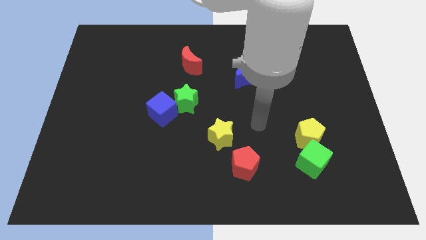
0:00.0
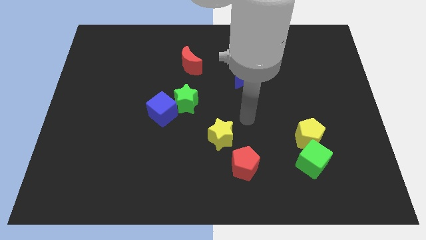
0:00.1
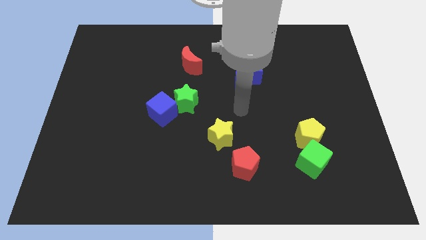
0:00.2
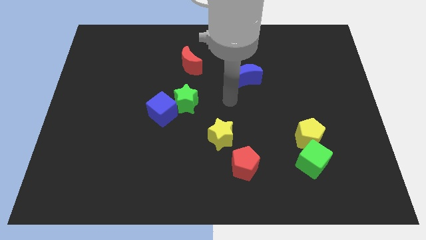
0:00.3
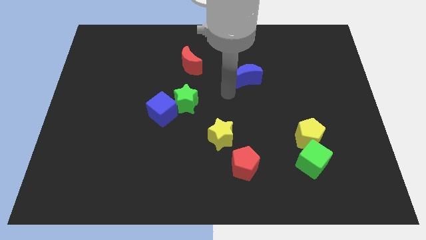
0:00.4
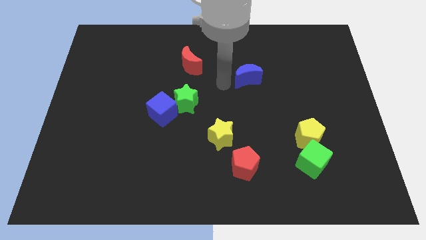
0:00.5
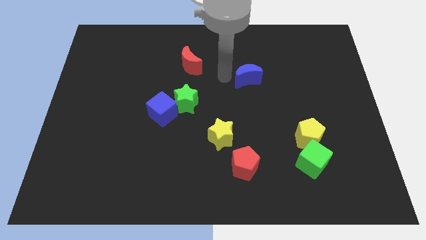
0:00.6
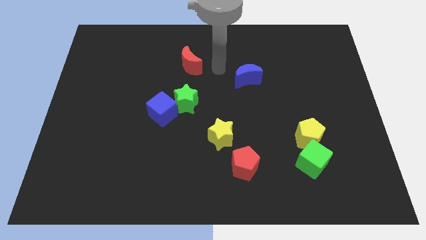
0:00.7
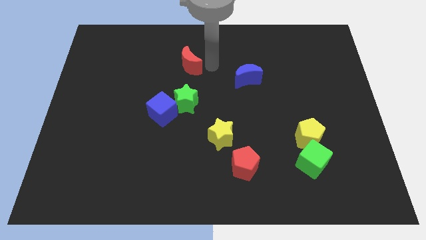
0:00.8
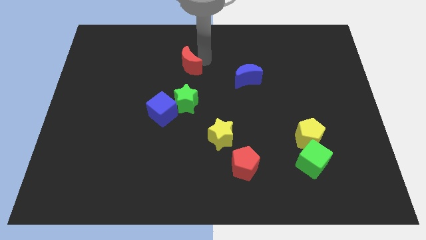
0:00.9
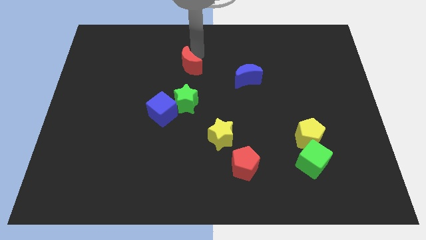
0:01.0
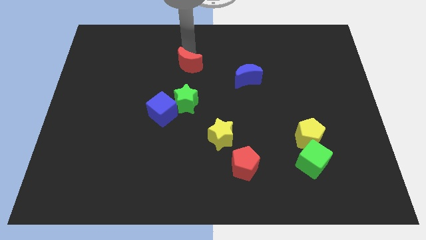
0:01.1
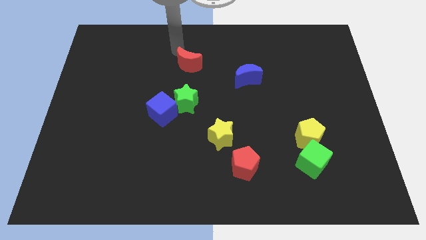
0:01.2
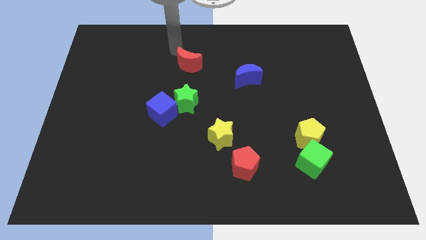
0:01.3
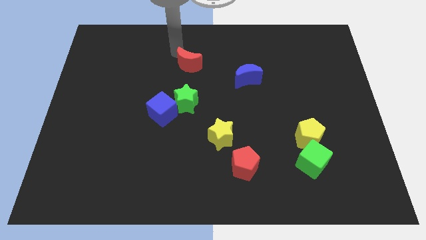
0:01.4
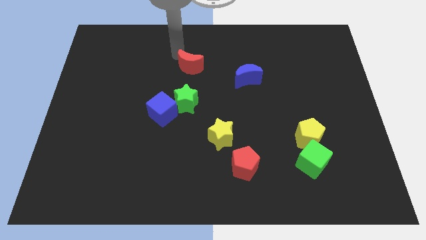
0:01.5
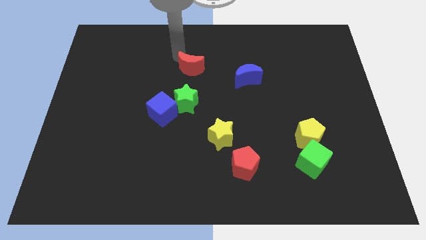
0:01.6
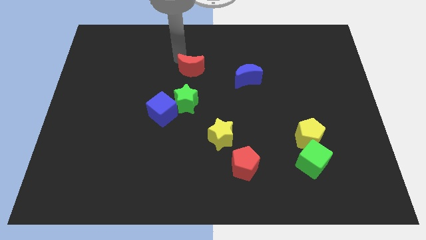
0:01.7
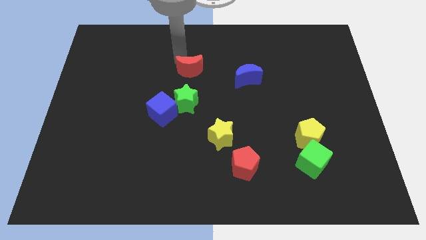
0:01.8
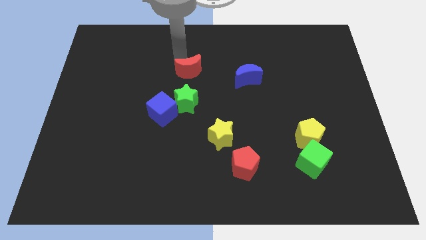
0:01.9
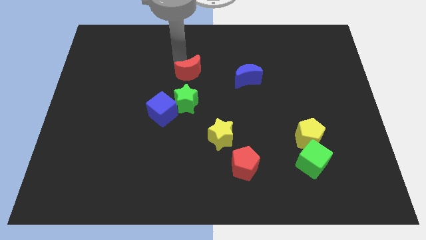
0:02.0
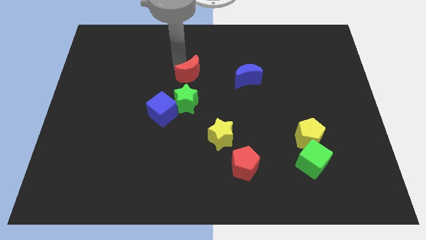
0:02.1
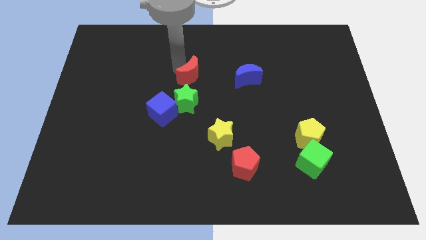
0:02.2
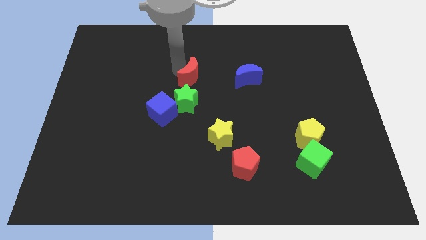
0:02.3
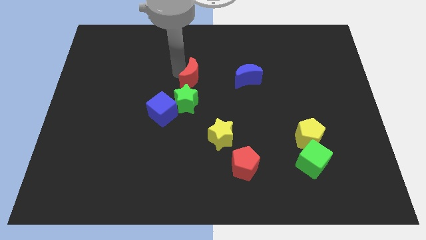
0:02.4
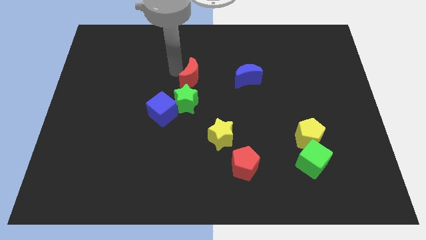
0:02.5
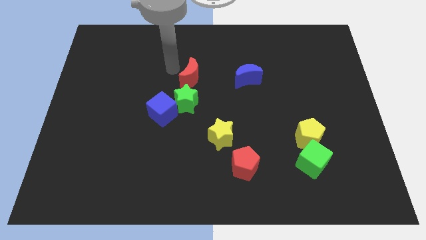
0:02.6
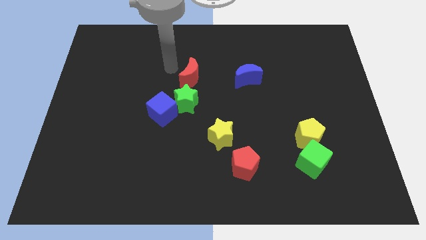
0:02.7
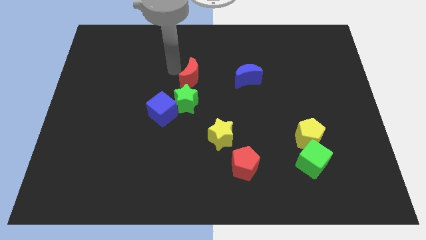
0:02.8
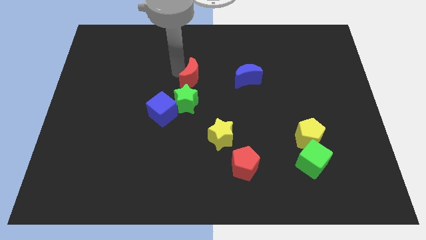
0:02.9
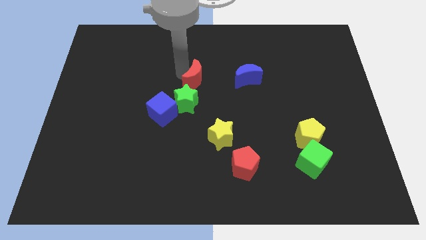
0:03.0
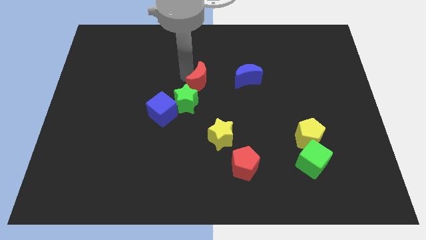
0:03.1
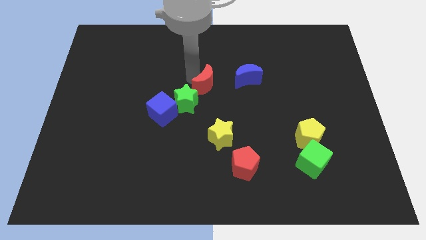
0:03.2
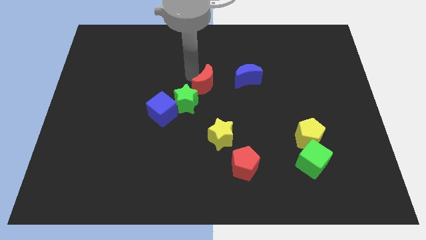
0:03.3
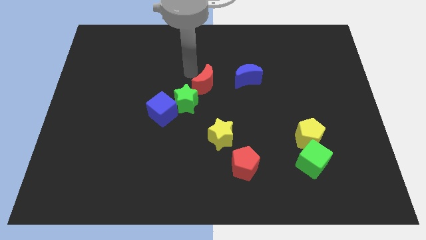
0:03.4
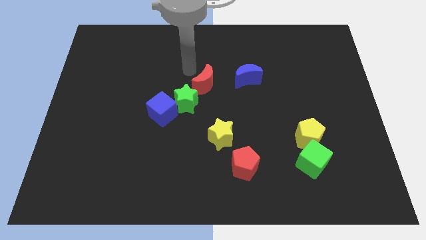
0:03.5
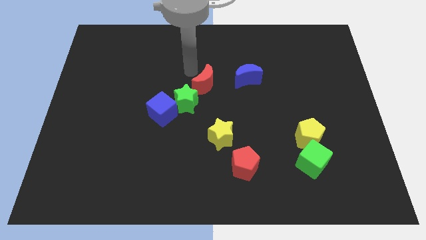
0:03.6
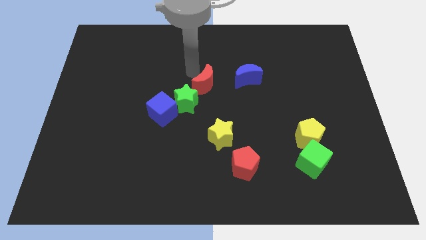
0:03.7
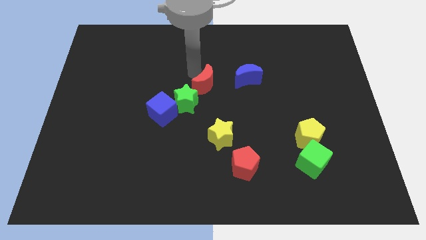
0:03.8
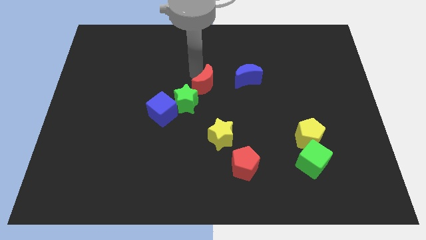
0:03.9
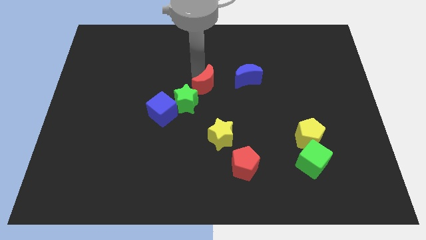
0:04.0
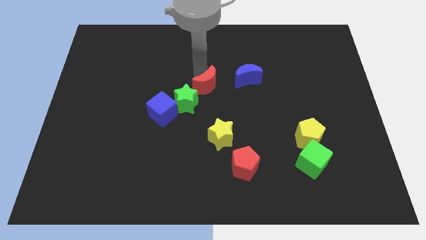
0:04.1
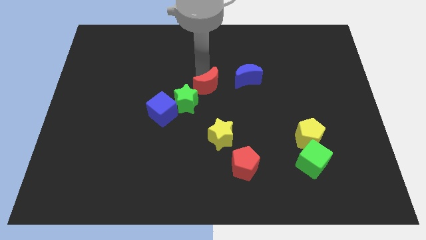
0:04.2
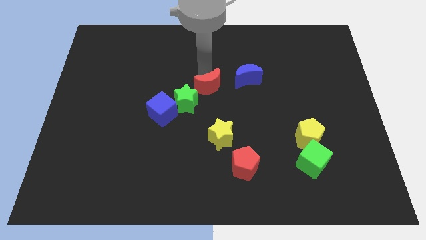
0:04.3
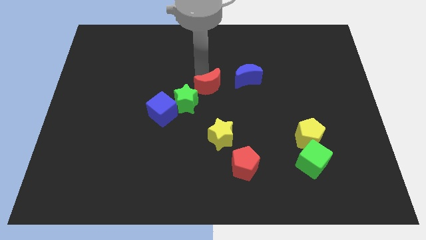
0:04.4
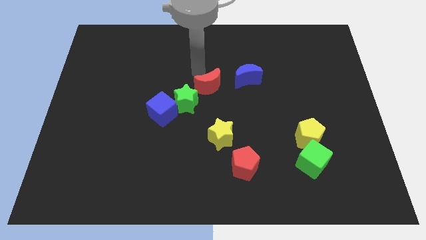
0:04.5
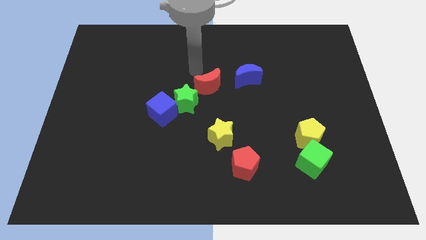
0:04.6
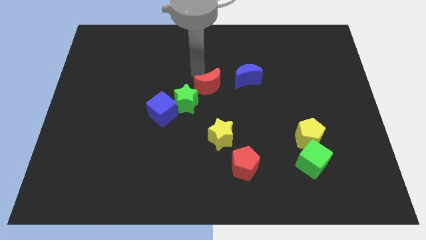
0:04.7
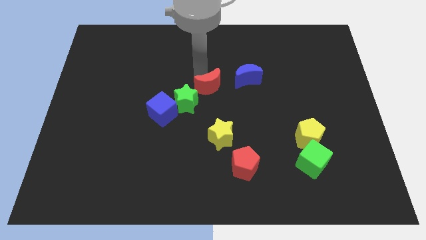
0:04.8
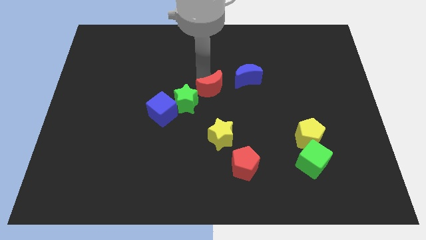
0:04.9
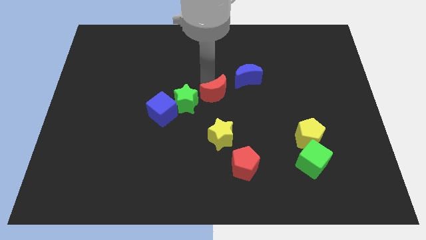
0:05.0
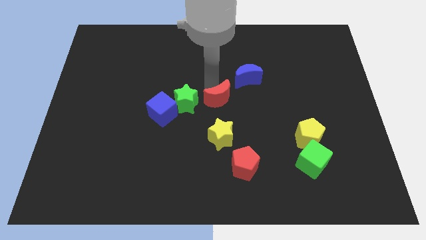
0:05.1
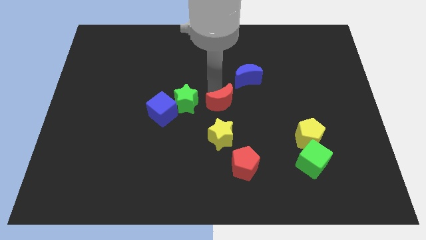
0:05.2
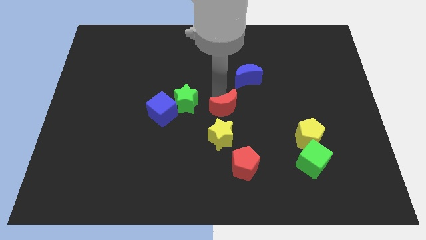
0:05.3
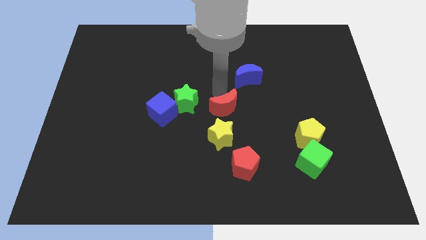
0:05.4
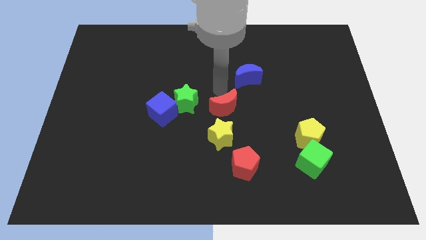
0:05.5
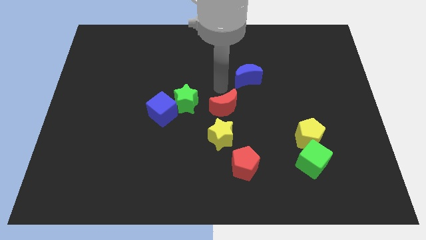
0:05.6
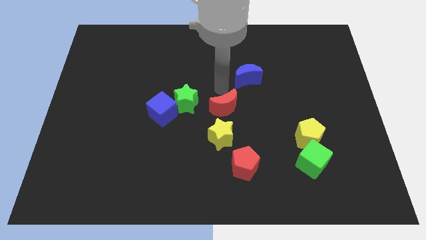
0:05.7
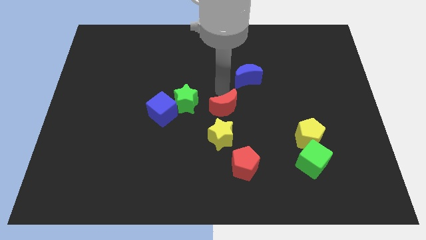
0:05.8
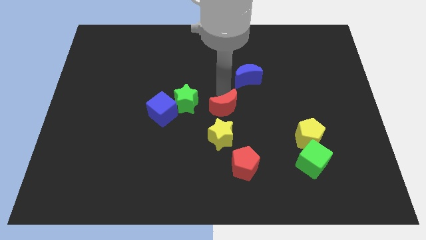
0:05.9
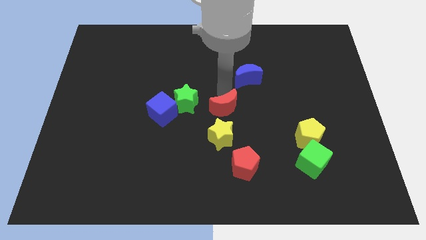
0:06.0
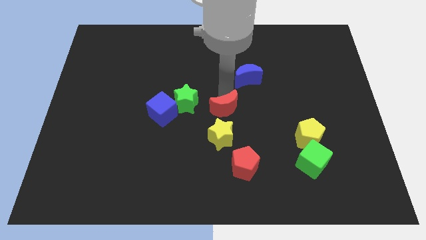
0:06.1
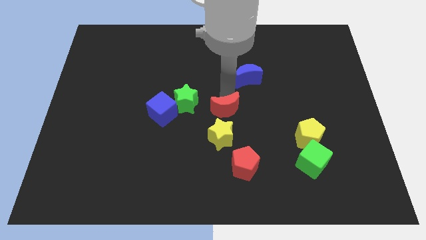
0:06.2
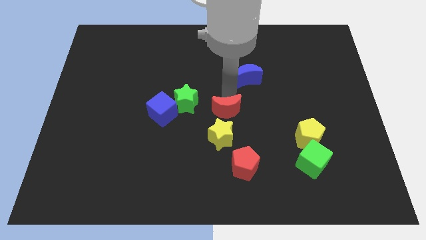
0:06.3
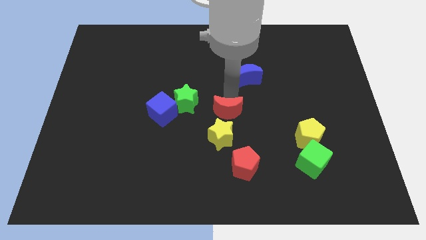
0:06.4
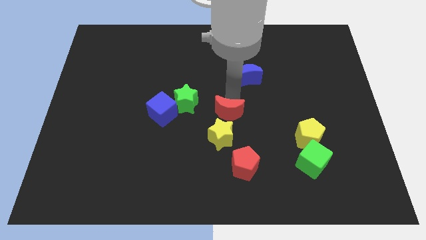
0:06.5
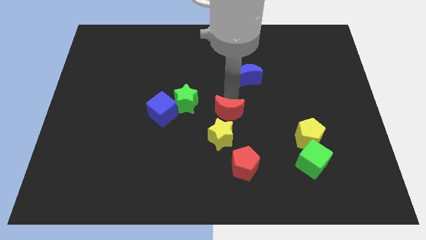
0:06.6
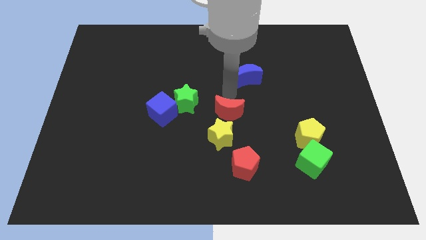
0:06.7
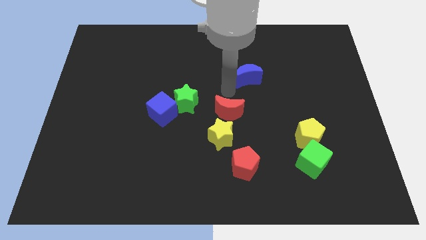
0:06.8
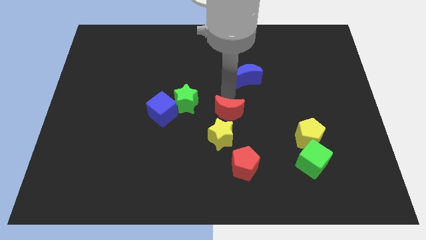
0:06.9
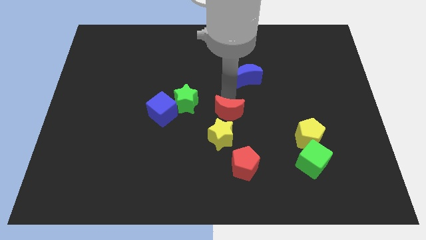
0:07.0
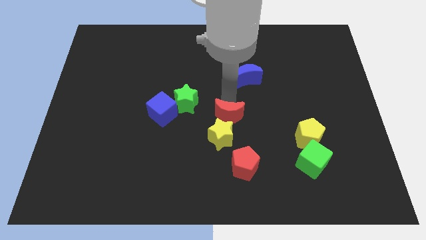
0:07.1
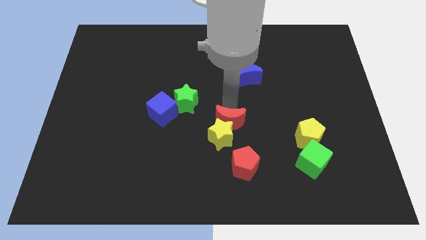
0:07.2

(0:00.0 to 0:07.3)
move the red moon to the yellow star
